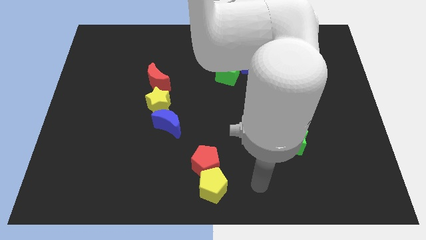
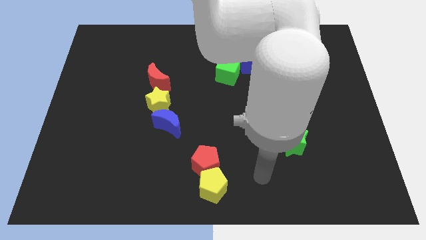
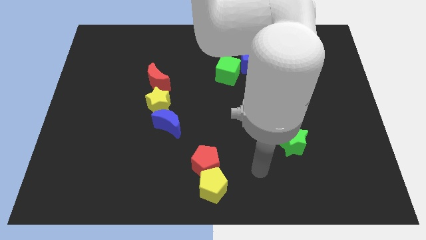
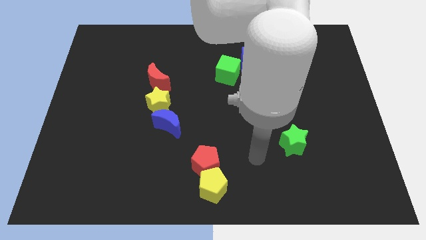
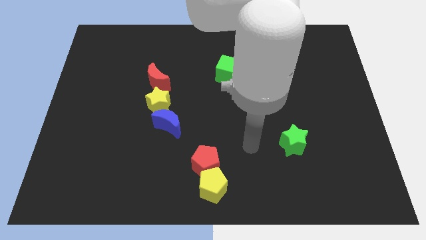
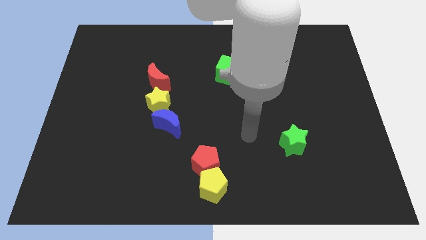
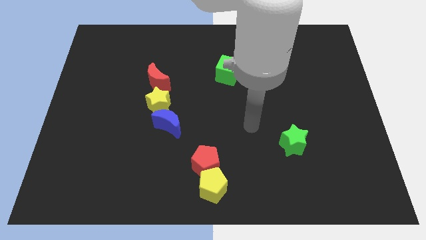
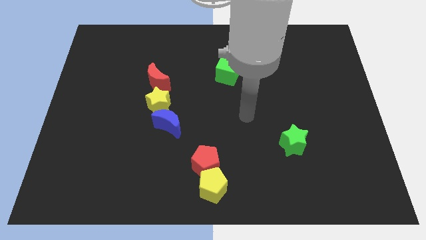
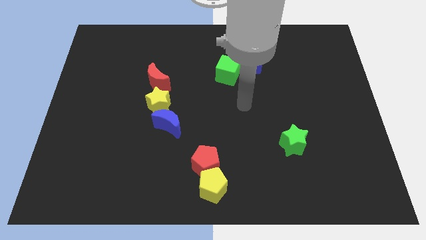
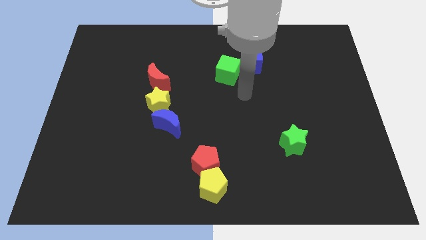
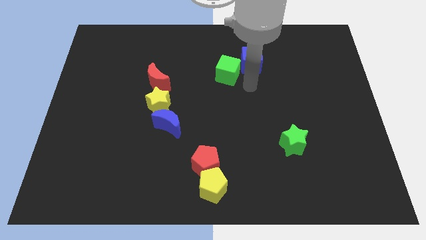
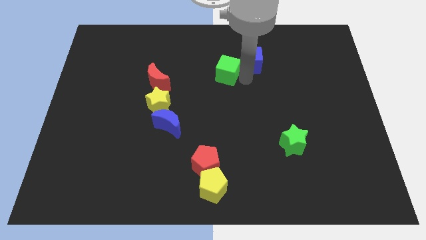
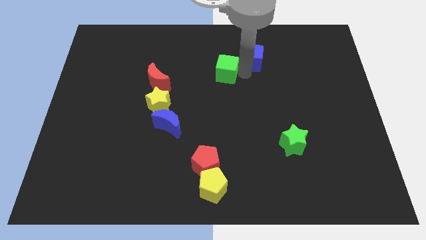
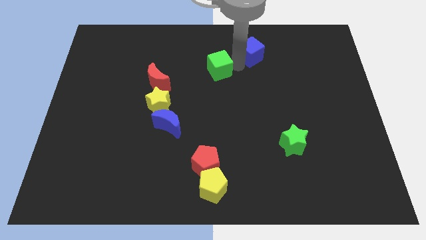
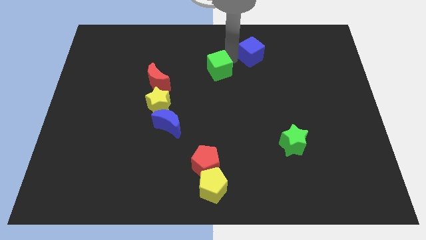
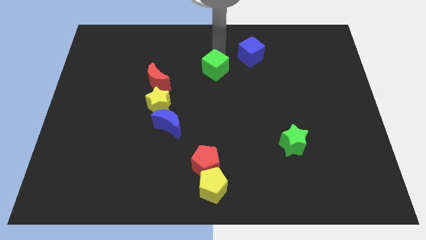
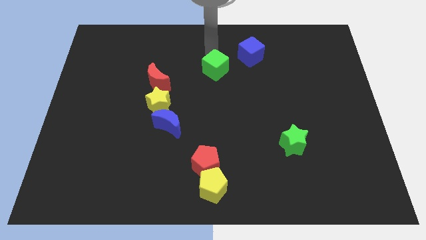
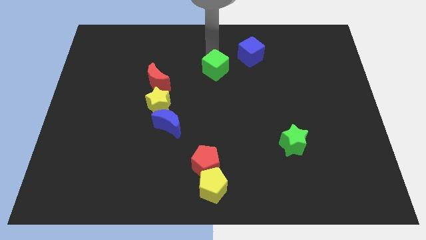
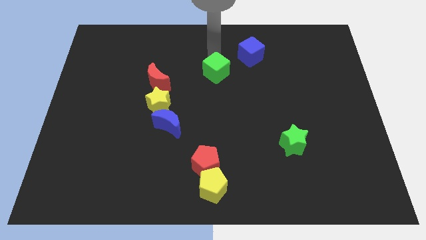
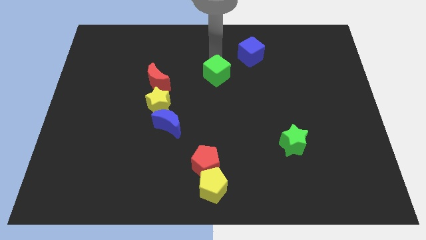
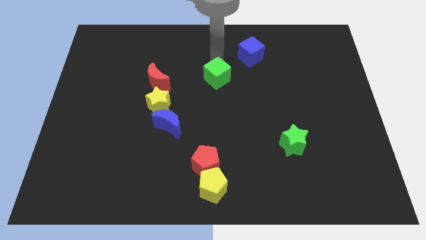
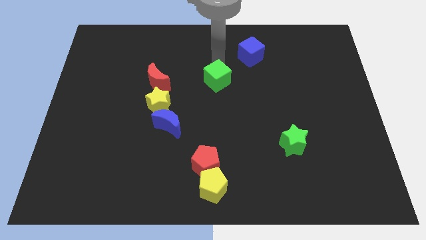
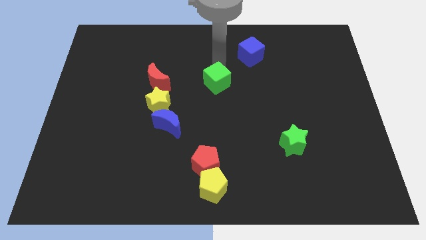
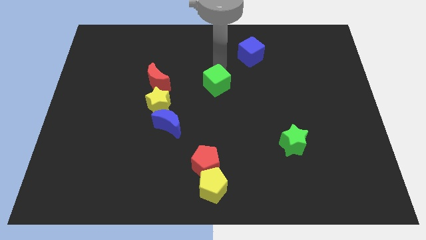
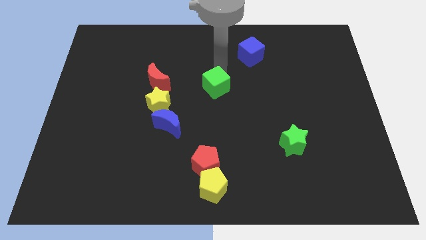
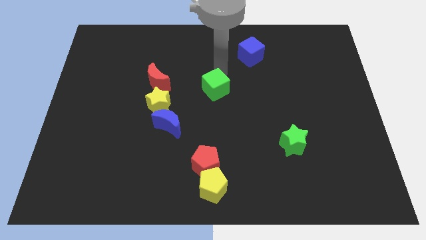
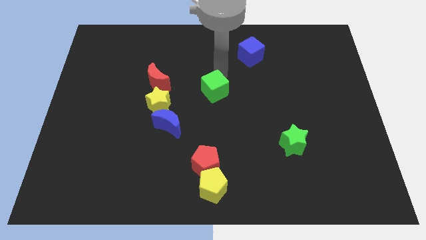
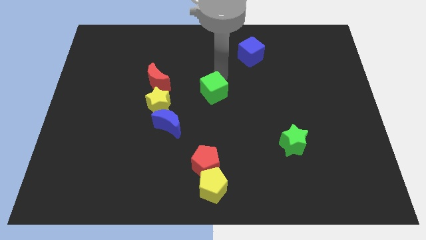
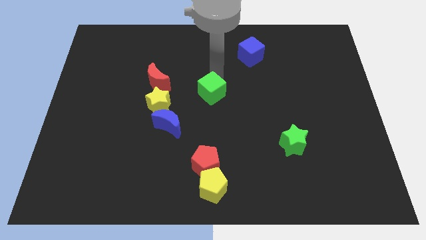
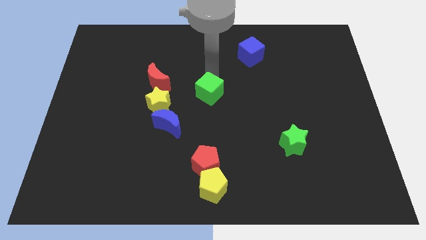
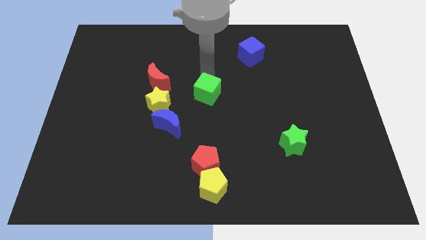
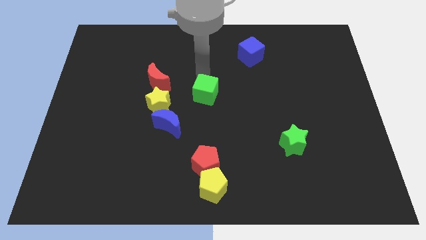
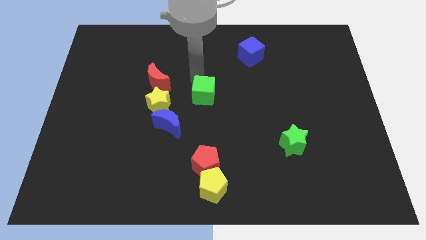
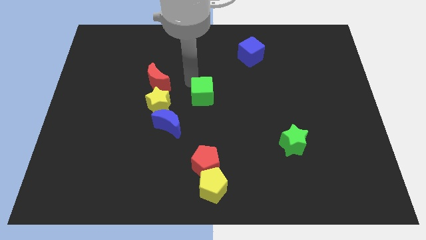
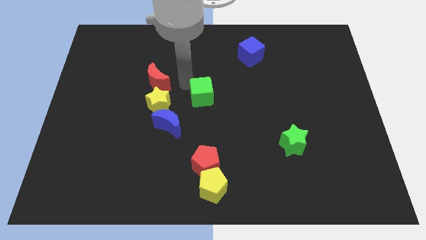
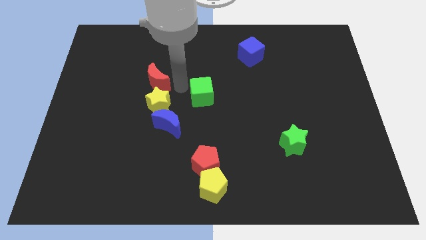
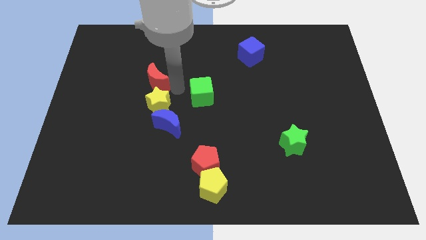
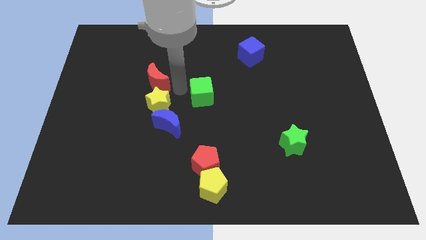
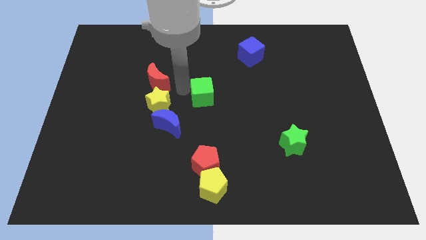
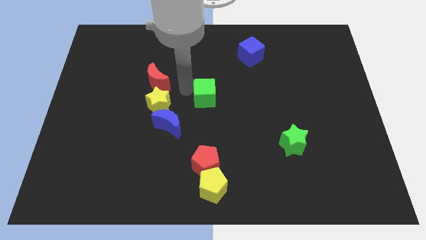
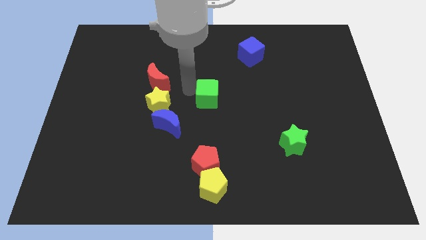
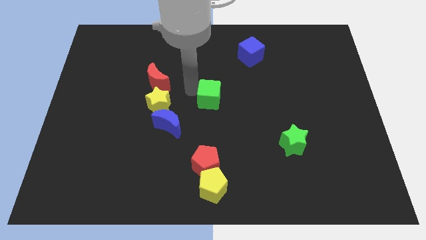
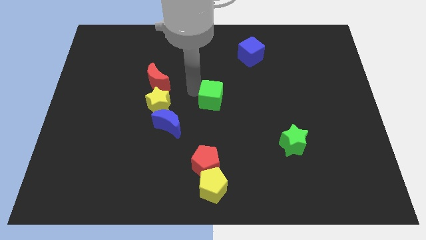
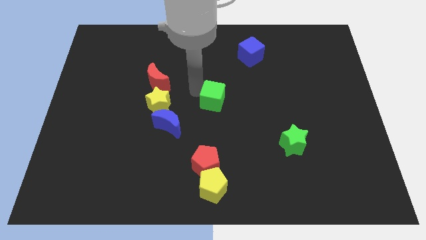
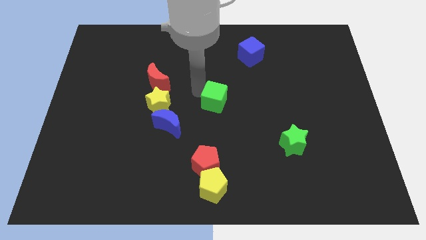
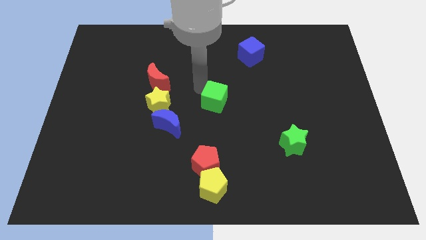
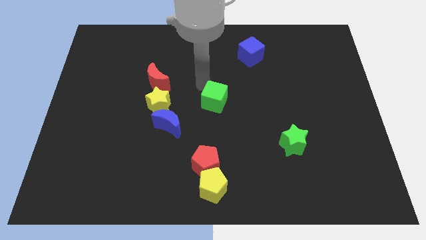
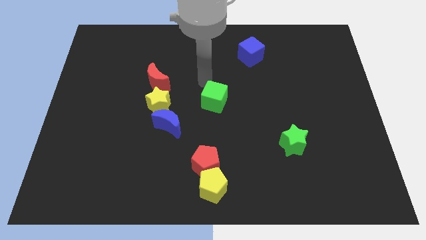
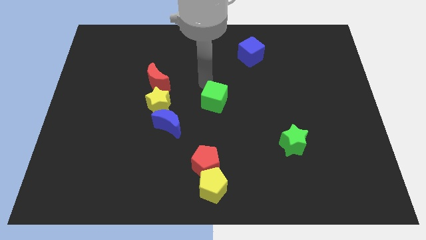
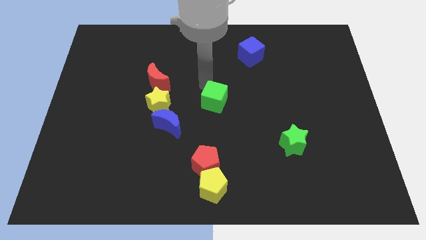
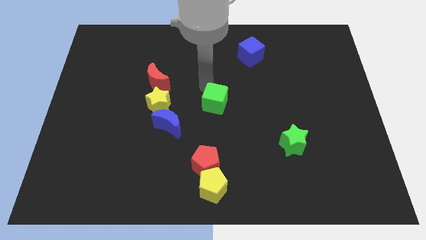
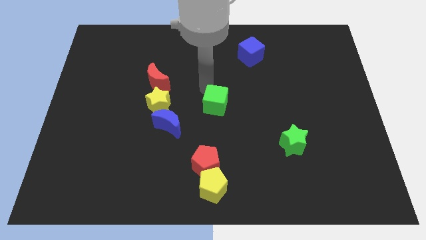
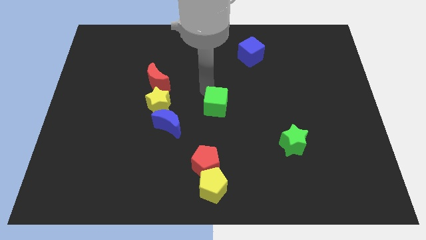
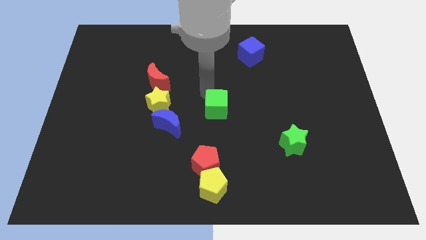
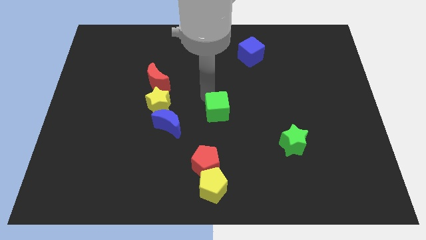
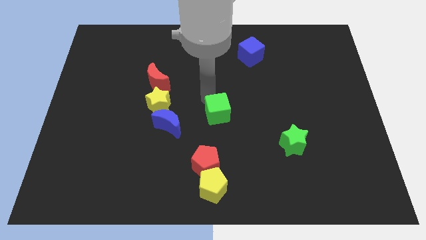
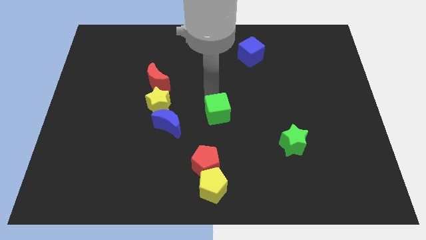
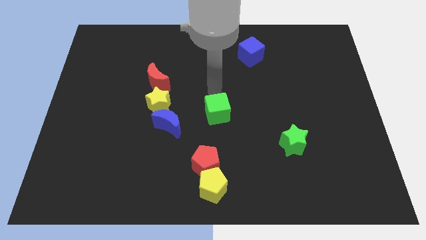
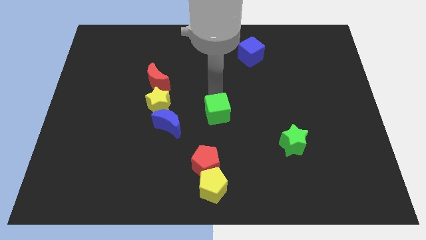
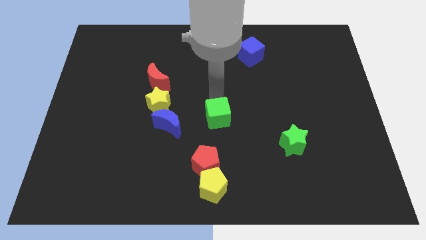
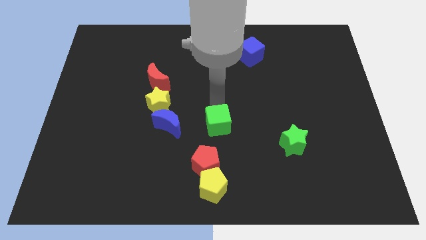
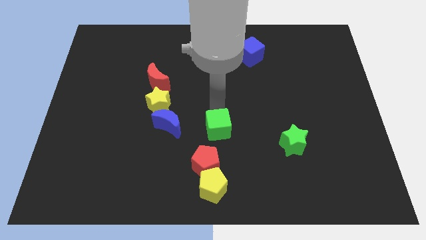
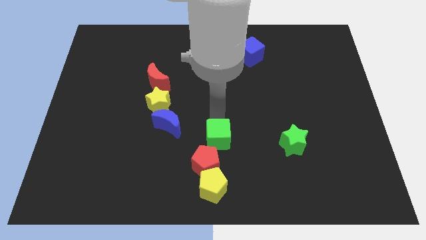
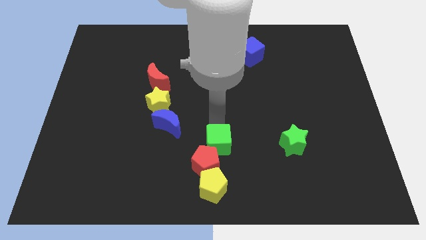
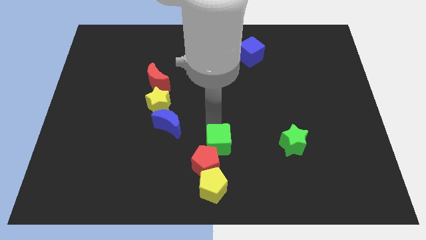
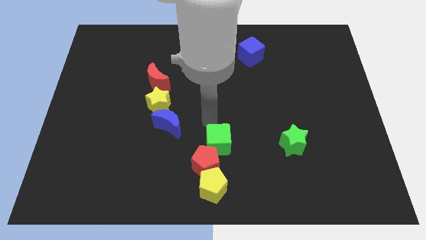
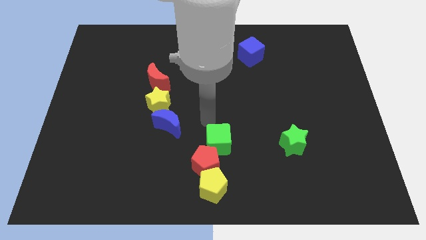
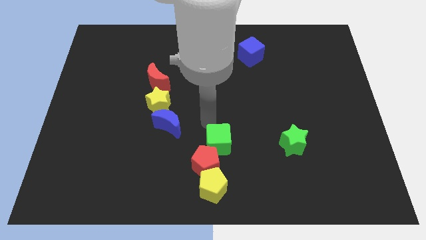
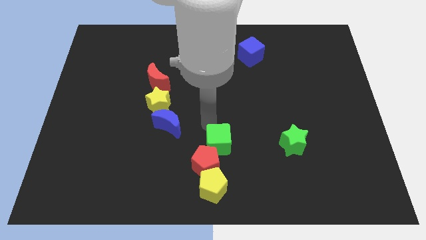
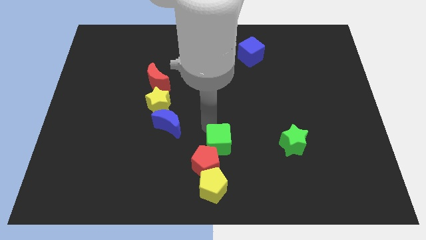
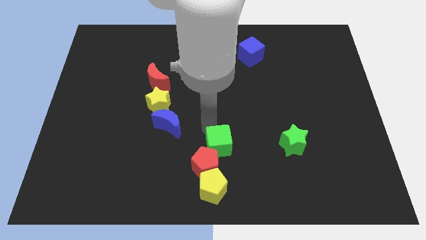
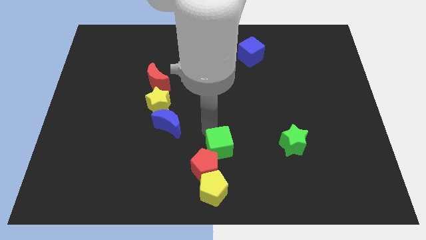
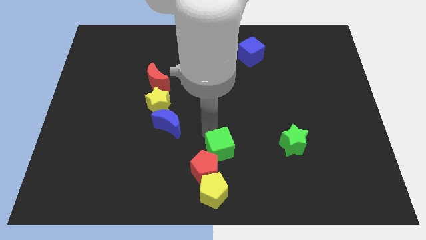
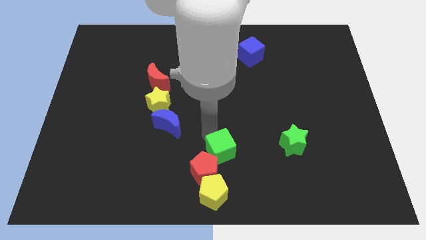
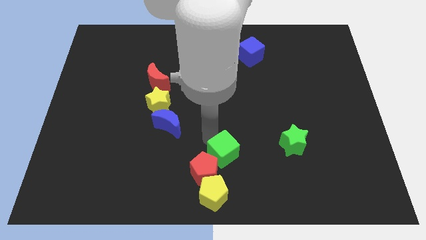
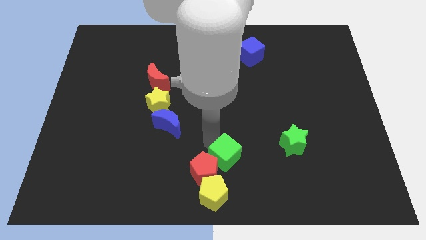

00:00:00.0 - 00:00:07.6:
push the green cube to the bottom
